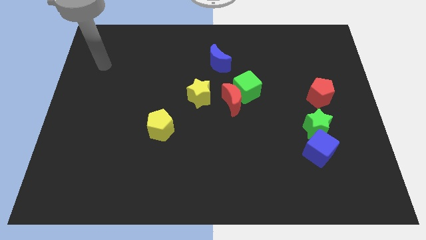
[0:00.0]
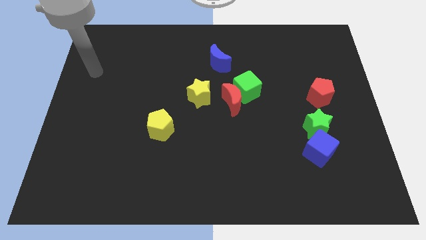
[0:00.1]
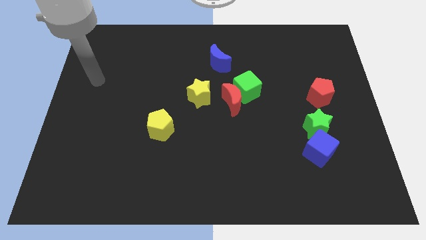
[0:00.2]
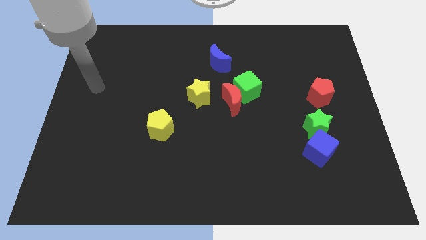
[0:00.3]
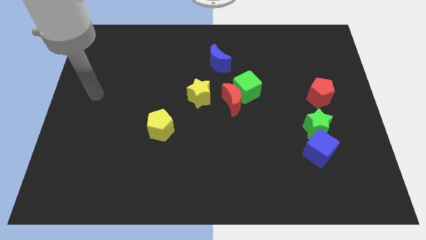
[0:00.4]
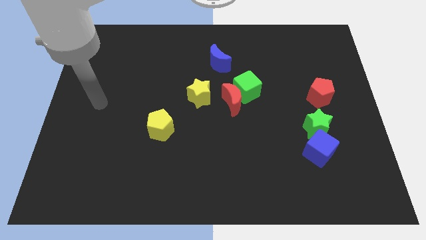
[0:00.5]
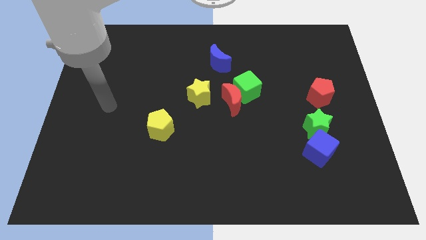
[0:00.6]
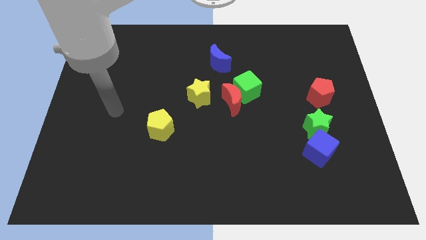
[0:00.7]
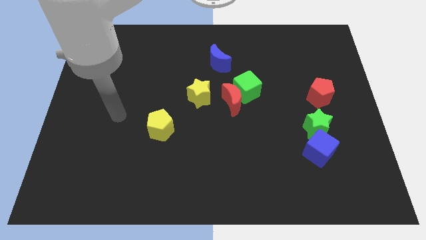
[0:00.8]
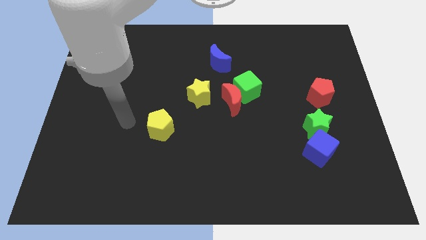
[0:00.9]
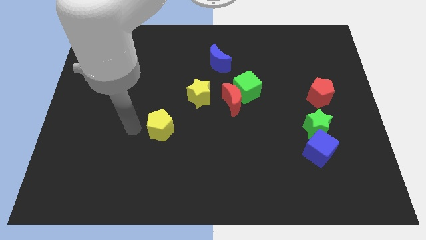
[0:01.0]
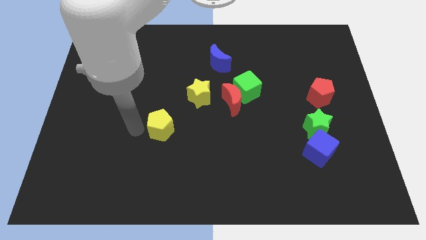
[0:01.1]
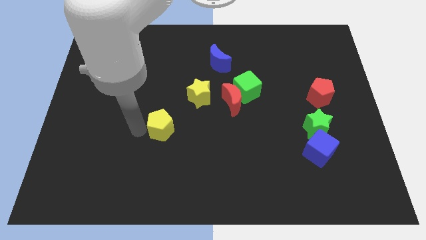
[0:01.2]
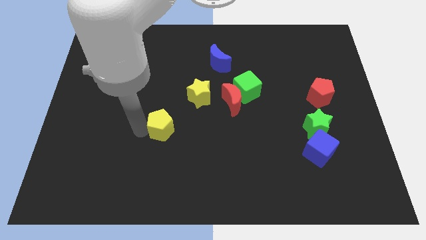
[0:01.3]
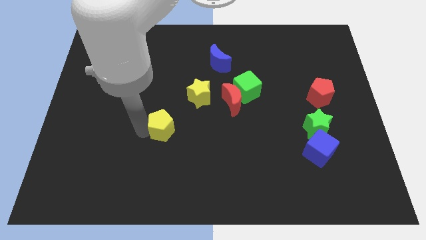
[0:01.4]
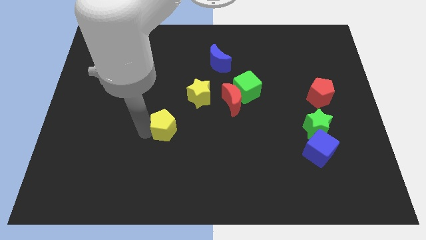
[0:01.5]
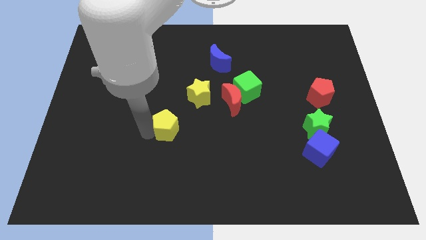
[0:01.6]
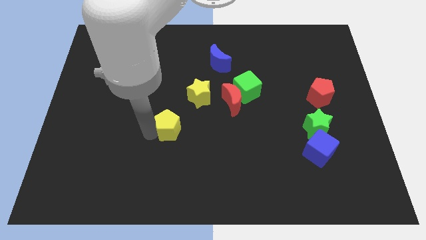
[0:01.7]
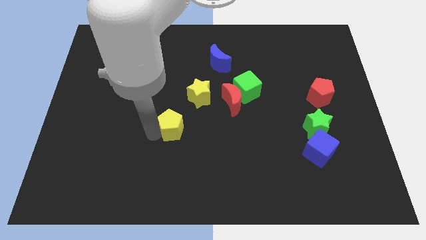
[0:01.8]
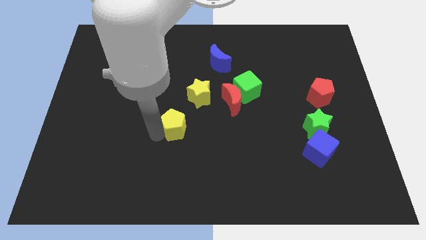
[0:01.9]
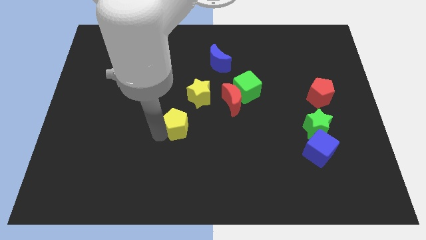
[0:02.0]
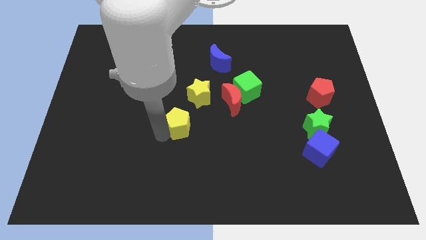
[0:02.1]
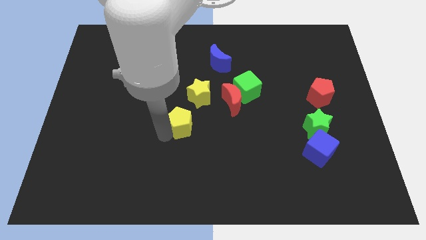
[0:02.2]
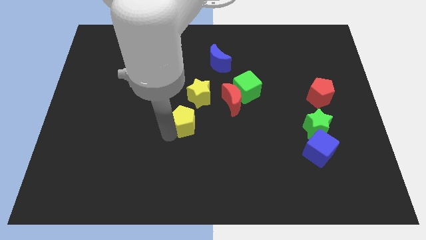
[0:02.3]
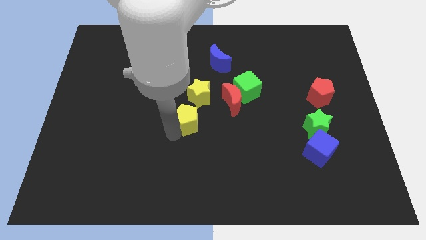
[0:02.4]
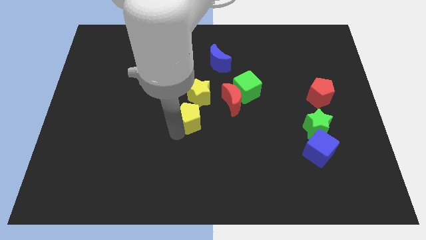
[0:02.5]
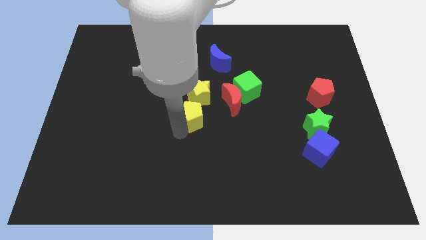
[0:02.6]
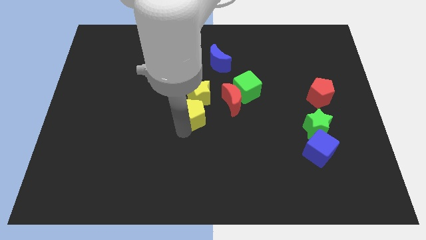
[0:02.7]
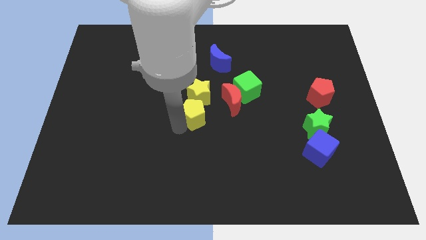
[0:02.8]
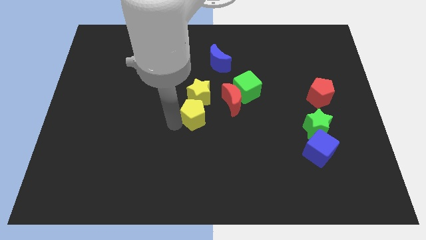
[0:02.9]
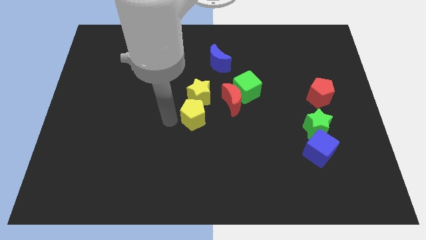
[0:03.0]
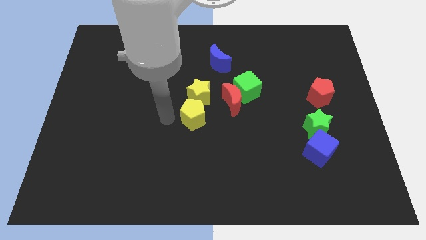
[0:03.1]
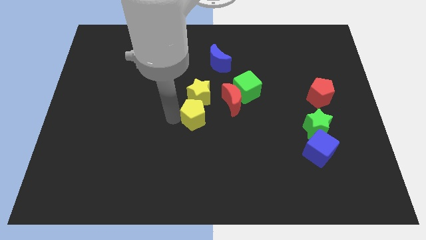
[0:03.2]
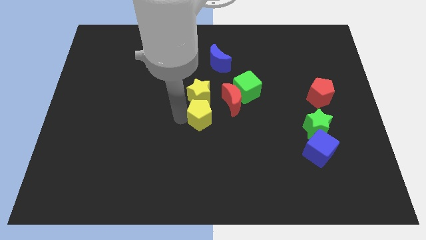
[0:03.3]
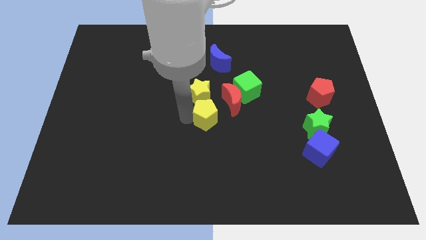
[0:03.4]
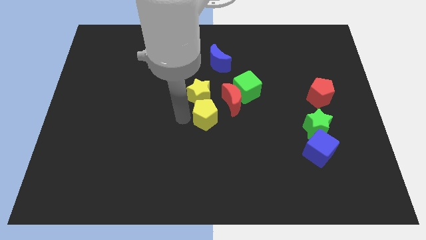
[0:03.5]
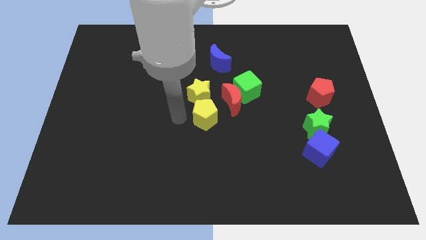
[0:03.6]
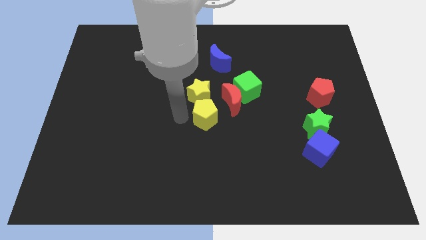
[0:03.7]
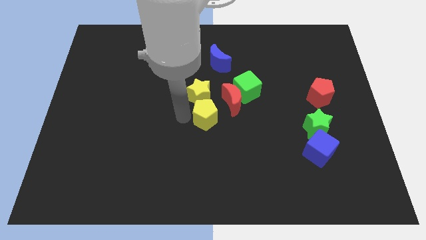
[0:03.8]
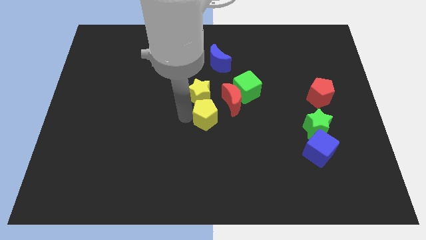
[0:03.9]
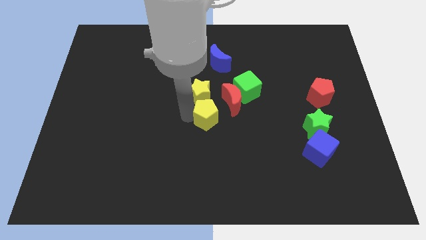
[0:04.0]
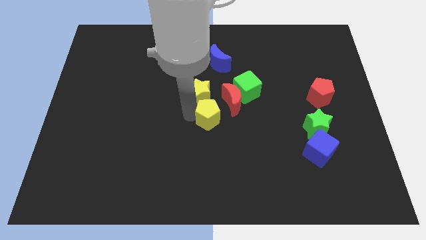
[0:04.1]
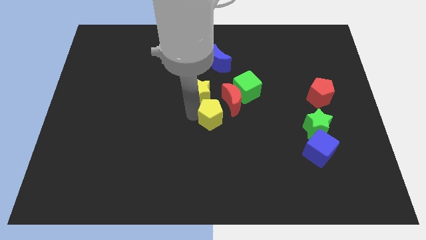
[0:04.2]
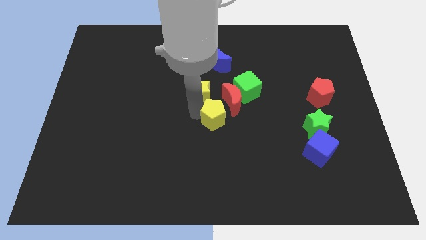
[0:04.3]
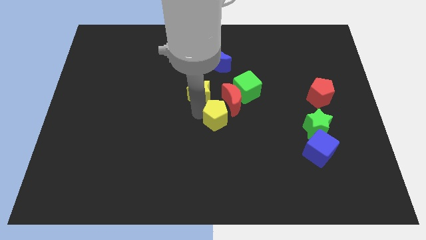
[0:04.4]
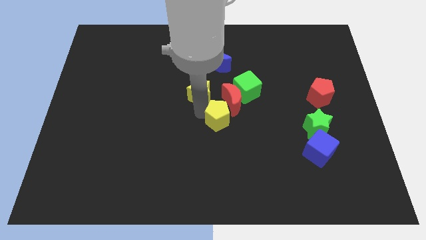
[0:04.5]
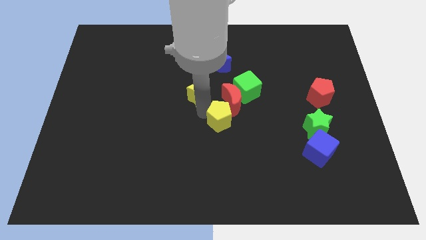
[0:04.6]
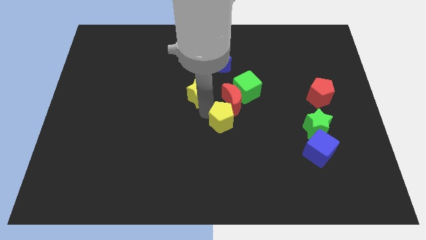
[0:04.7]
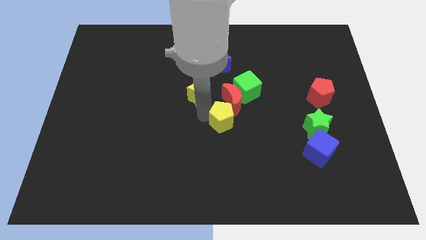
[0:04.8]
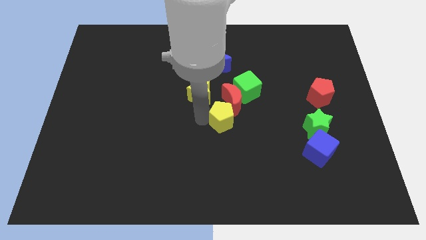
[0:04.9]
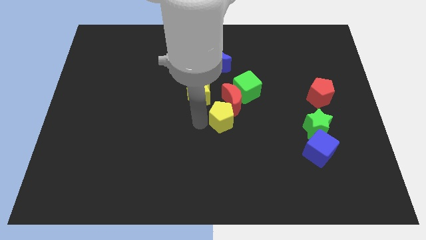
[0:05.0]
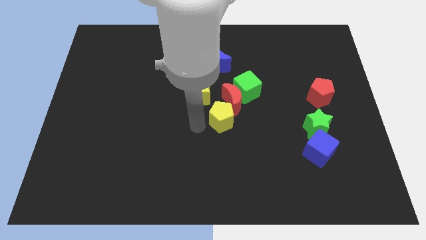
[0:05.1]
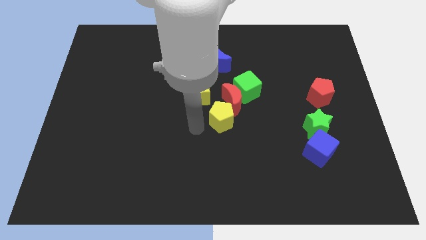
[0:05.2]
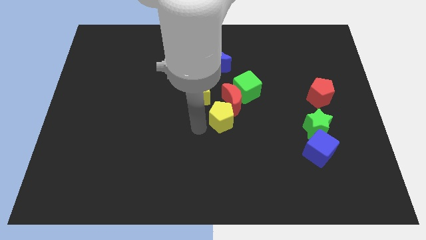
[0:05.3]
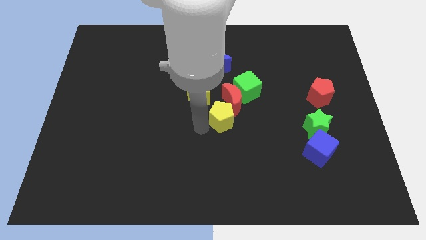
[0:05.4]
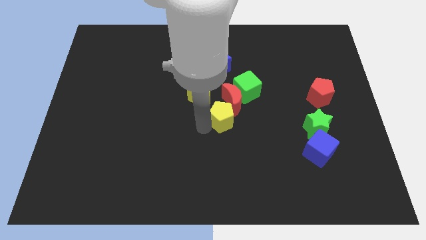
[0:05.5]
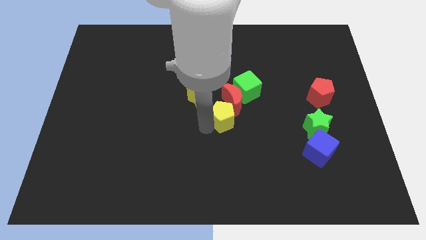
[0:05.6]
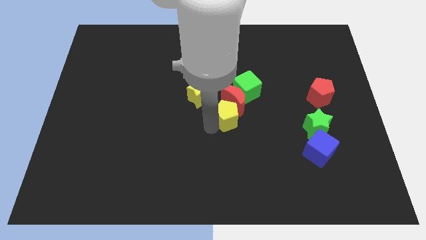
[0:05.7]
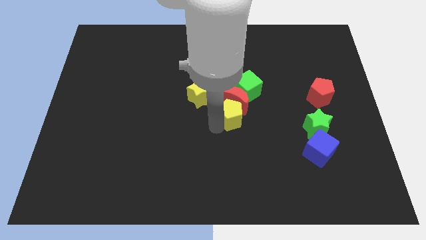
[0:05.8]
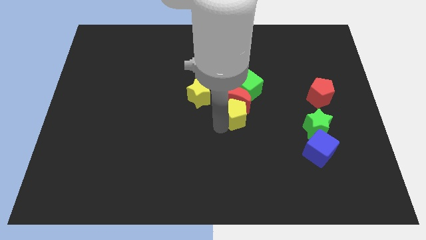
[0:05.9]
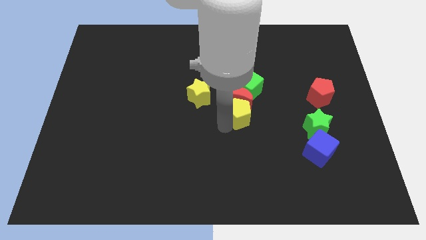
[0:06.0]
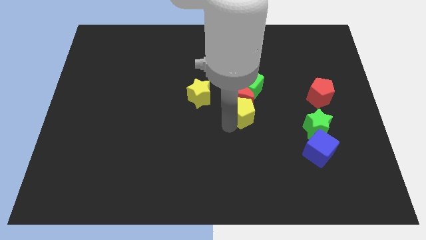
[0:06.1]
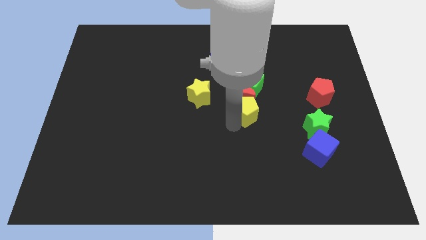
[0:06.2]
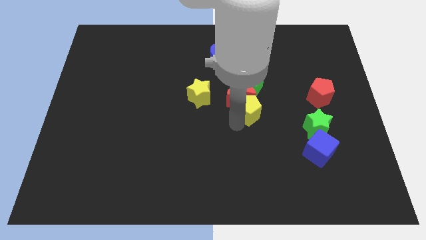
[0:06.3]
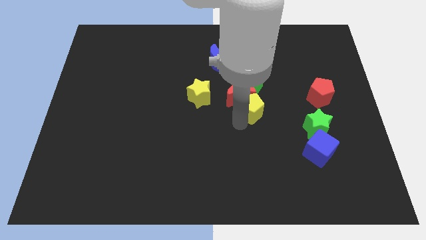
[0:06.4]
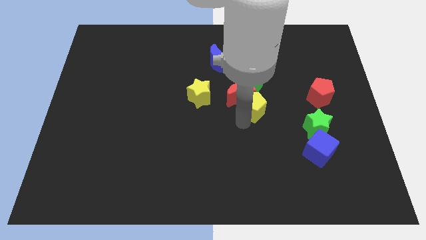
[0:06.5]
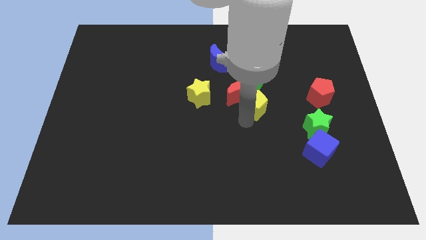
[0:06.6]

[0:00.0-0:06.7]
slide the yellow pentagon to the bottom right of the green cube
